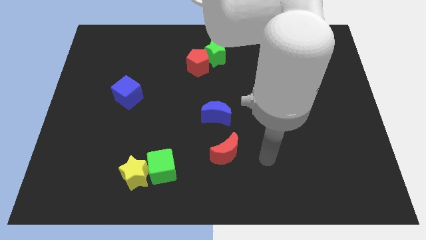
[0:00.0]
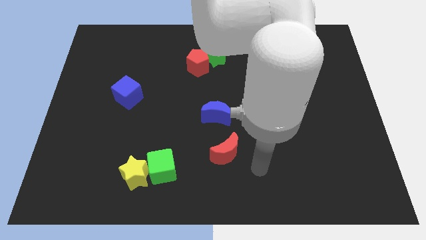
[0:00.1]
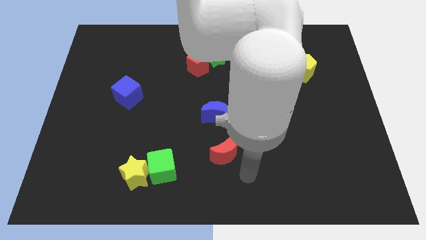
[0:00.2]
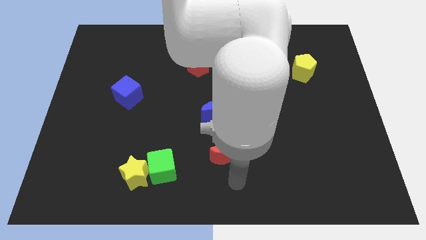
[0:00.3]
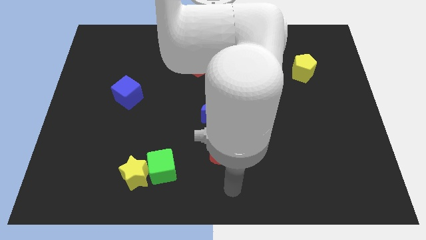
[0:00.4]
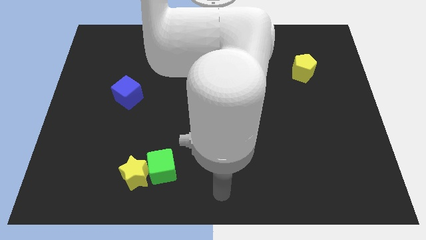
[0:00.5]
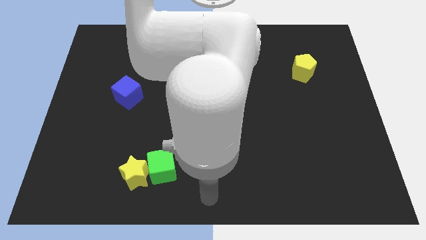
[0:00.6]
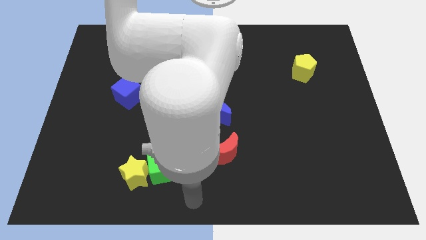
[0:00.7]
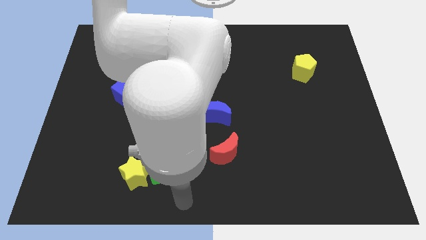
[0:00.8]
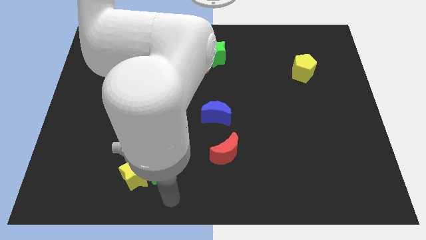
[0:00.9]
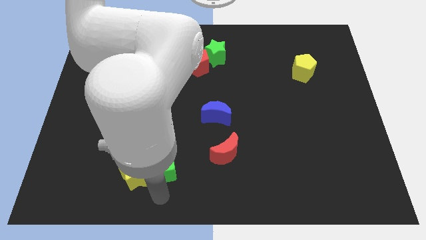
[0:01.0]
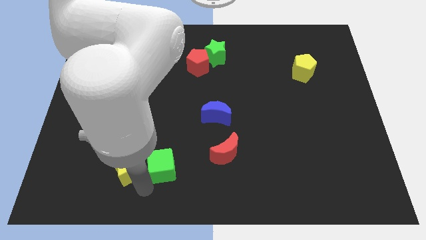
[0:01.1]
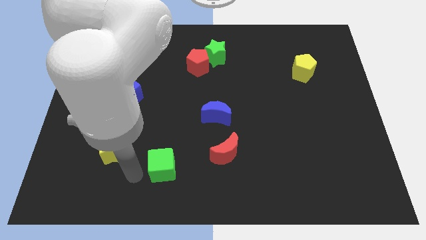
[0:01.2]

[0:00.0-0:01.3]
move the green cube away from the yellow star

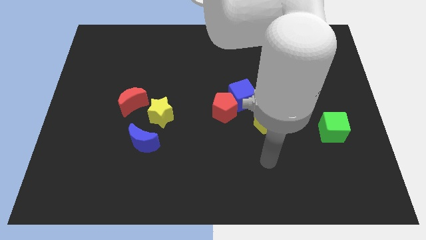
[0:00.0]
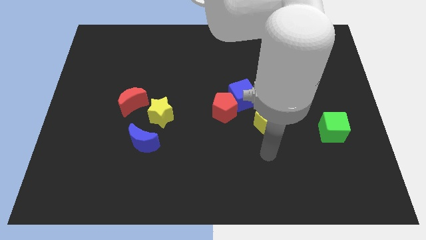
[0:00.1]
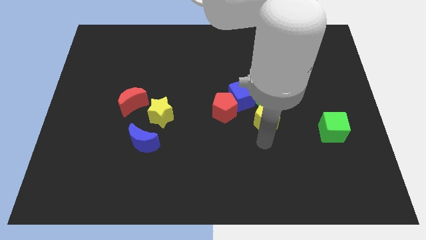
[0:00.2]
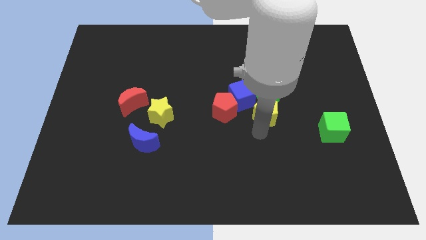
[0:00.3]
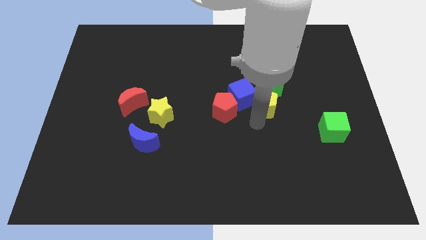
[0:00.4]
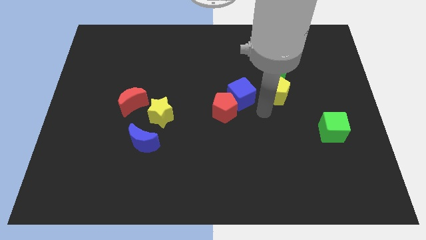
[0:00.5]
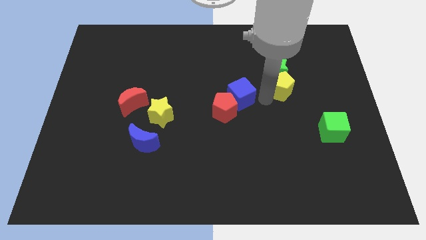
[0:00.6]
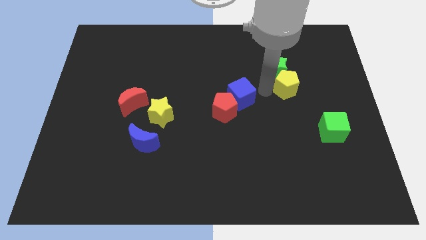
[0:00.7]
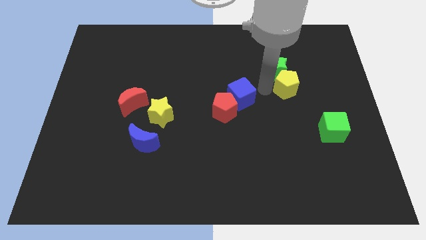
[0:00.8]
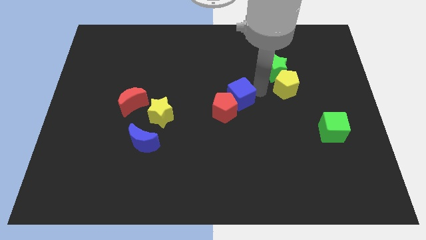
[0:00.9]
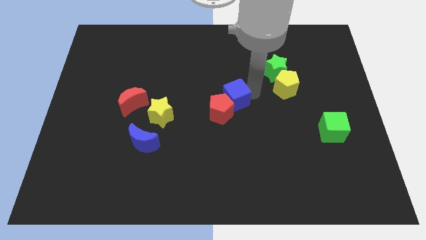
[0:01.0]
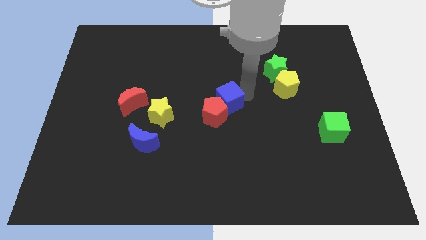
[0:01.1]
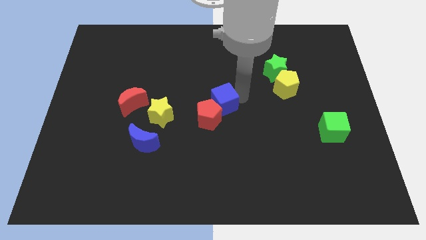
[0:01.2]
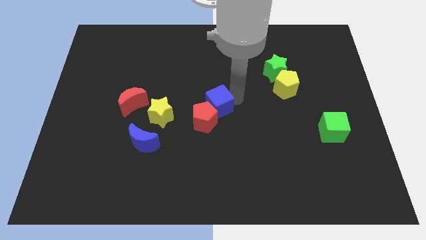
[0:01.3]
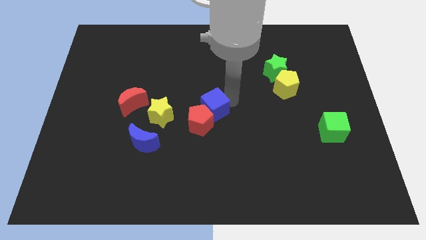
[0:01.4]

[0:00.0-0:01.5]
separate the blue cube from the red pentagon, green star, and yellow pentagon

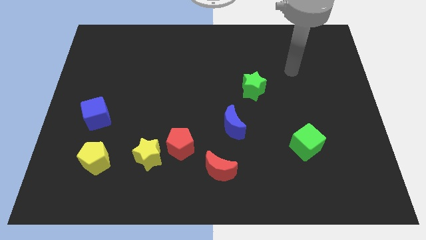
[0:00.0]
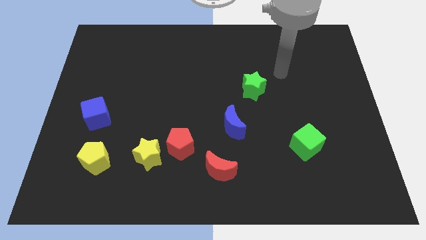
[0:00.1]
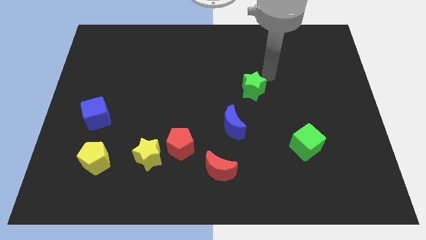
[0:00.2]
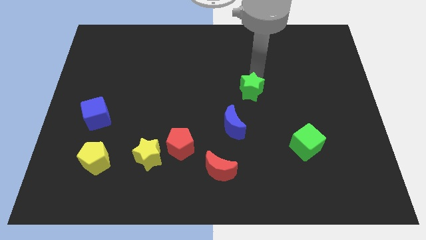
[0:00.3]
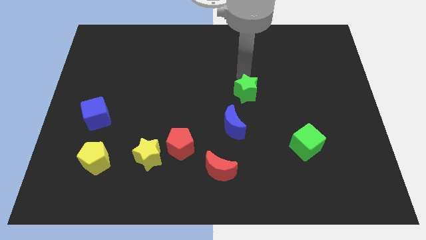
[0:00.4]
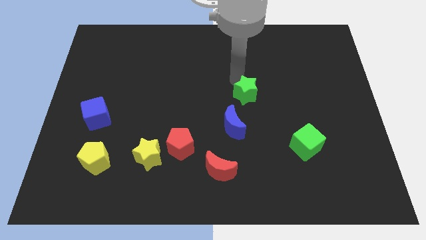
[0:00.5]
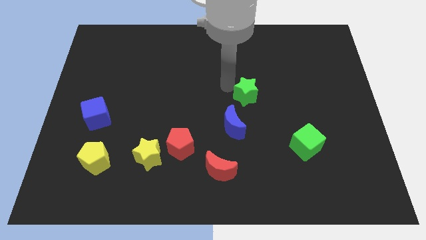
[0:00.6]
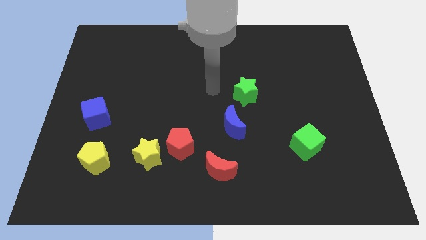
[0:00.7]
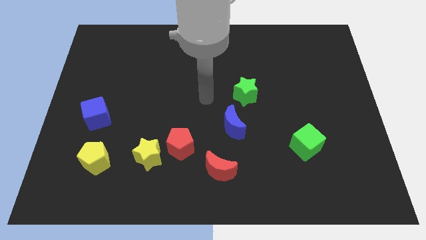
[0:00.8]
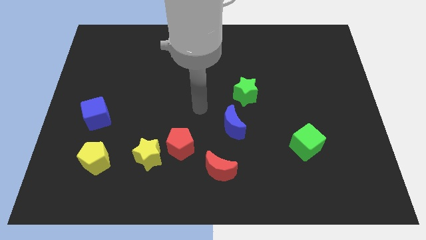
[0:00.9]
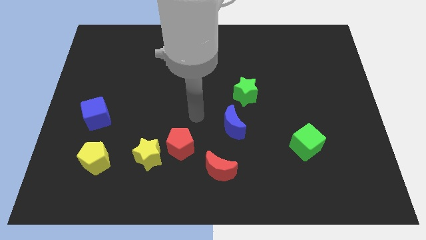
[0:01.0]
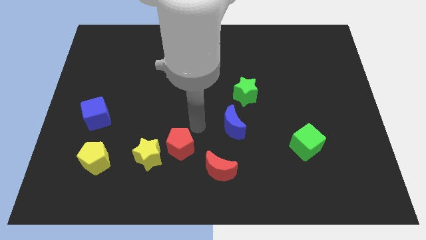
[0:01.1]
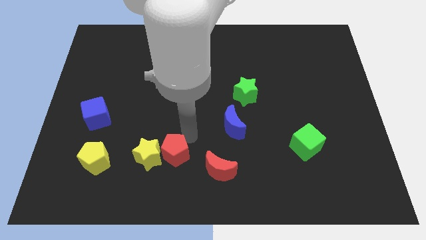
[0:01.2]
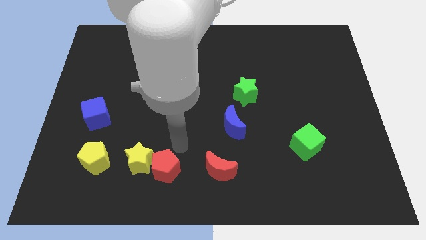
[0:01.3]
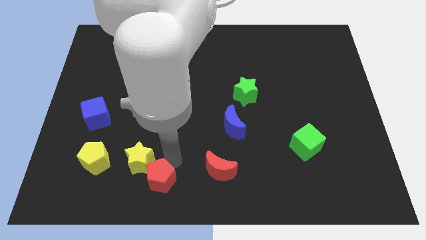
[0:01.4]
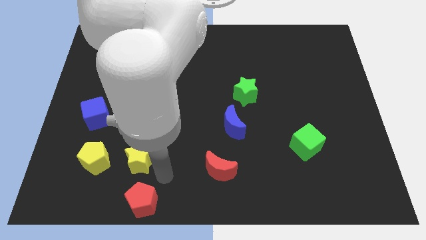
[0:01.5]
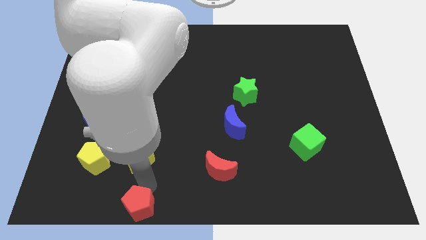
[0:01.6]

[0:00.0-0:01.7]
move the yellow star away from the red pentagon

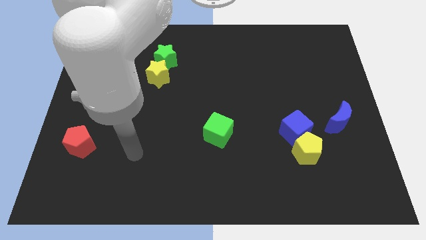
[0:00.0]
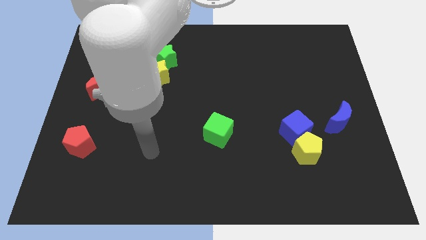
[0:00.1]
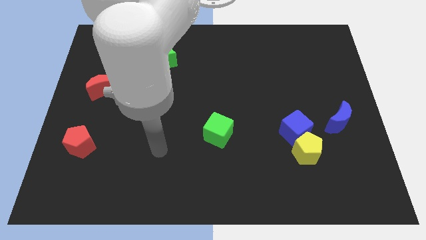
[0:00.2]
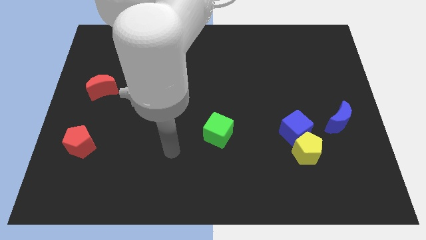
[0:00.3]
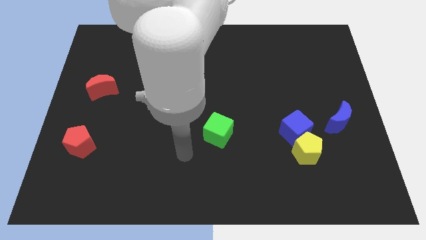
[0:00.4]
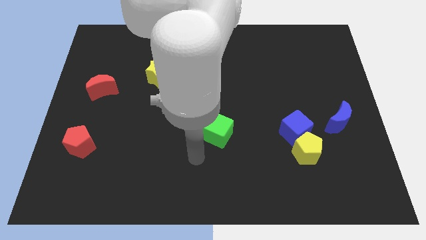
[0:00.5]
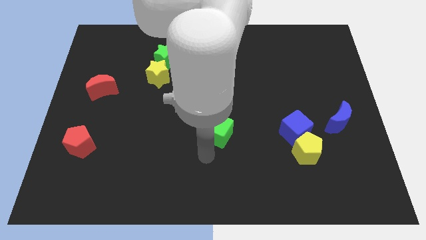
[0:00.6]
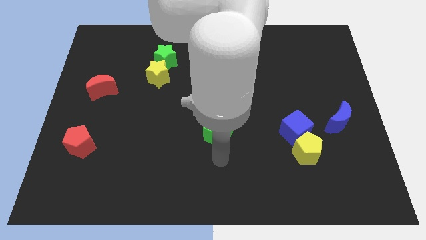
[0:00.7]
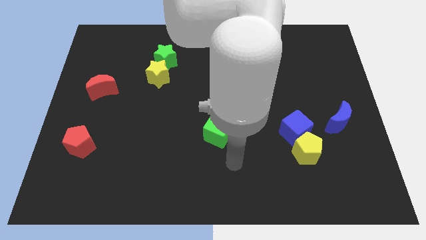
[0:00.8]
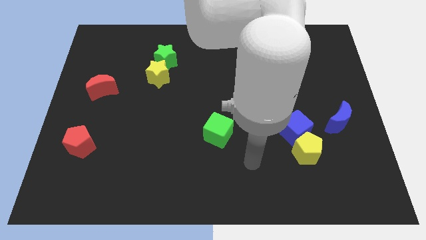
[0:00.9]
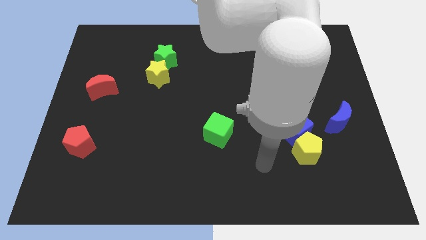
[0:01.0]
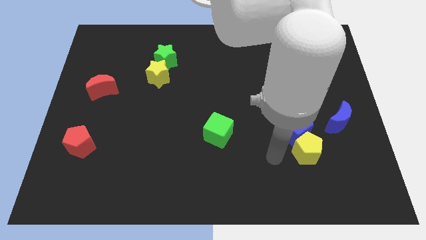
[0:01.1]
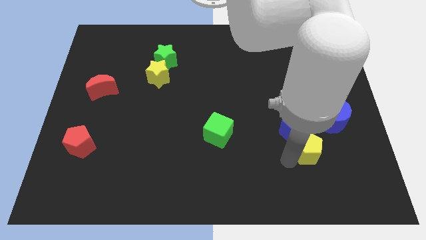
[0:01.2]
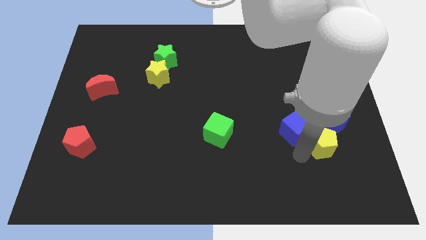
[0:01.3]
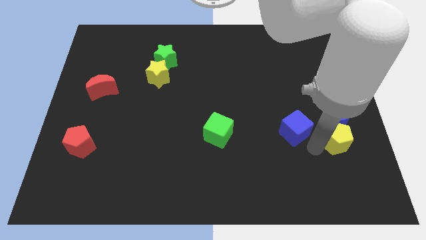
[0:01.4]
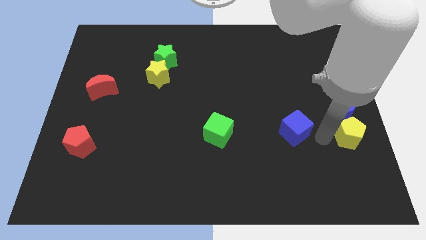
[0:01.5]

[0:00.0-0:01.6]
pull the blue cube apart from the yellow pentagon

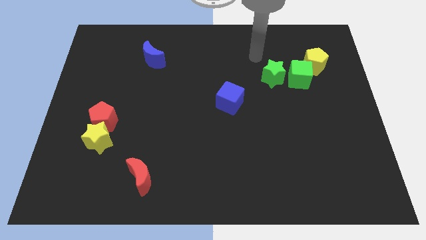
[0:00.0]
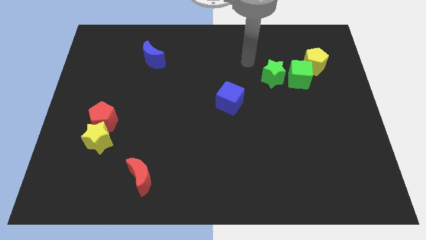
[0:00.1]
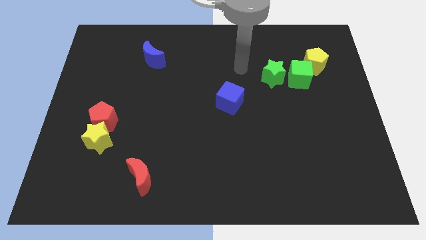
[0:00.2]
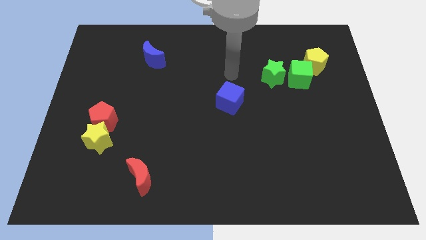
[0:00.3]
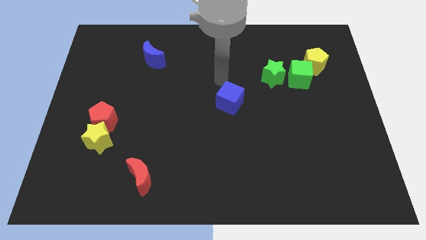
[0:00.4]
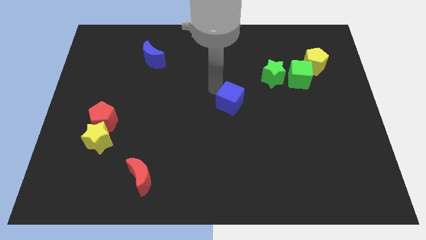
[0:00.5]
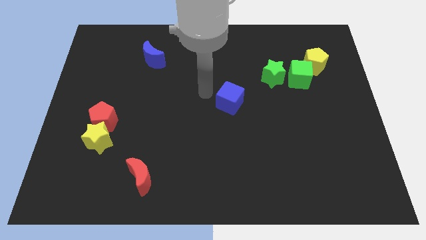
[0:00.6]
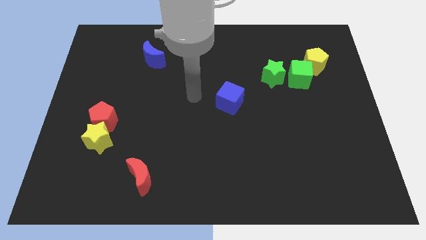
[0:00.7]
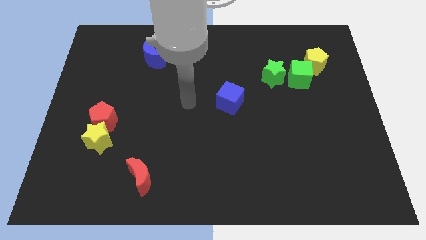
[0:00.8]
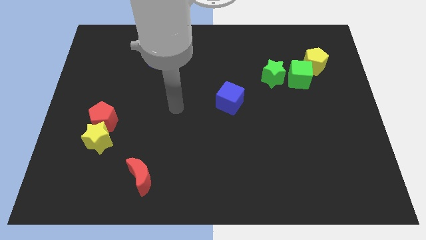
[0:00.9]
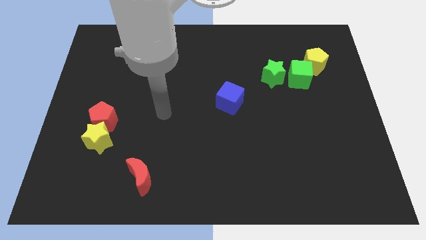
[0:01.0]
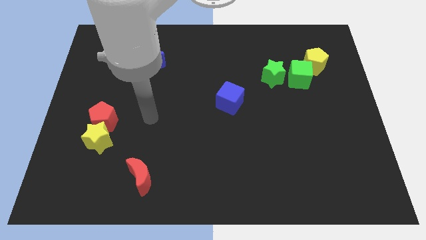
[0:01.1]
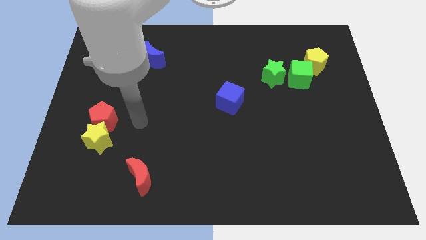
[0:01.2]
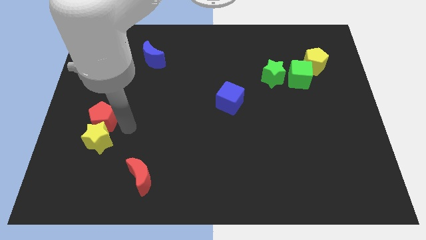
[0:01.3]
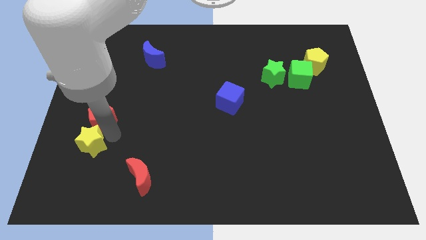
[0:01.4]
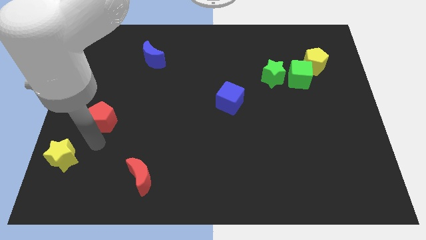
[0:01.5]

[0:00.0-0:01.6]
separate the red pentagon from the yellow star

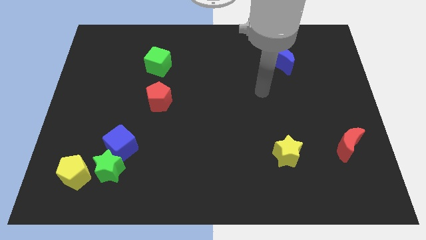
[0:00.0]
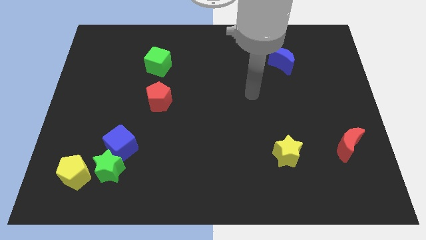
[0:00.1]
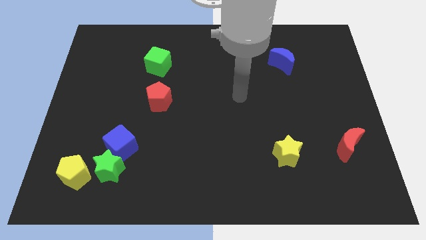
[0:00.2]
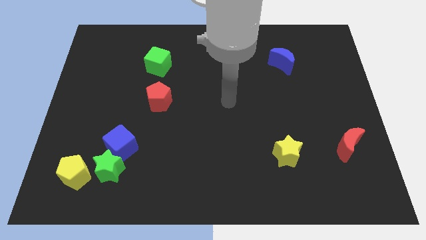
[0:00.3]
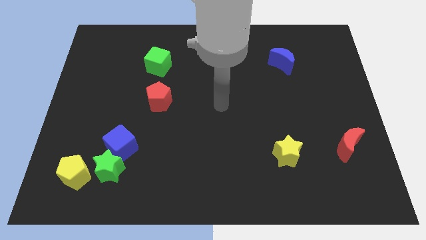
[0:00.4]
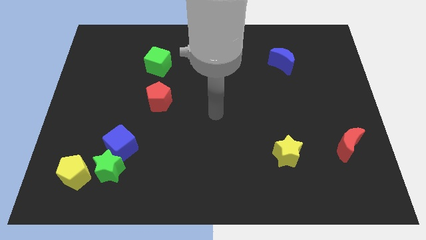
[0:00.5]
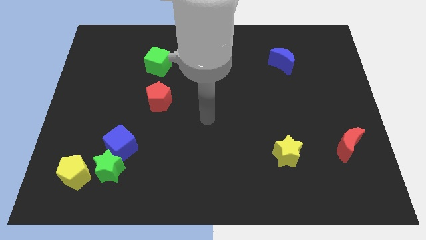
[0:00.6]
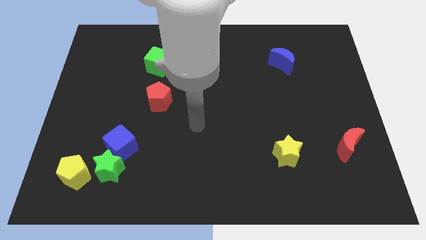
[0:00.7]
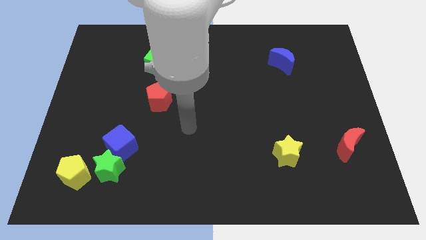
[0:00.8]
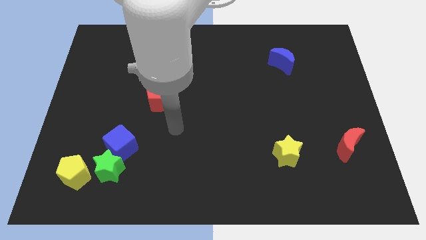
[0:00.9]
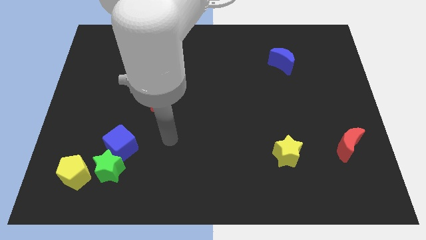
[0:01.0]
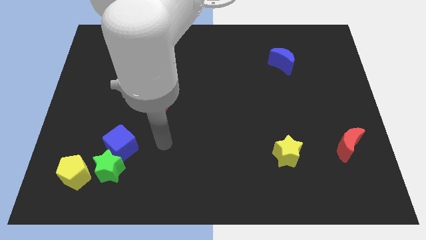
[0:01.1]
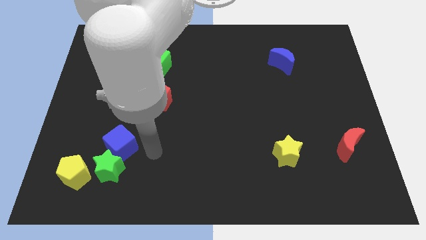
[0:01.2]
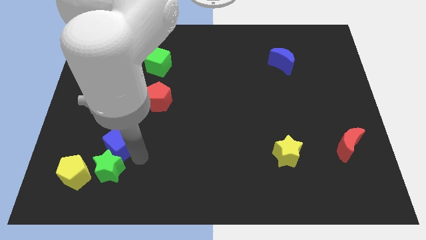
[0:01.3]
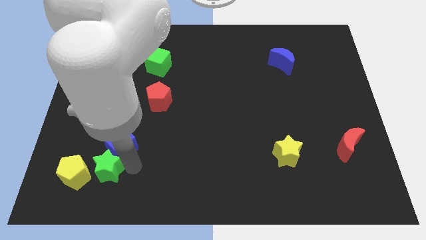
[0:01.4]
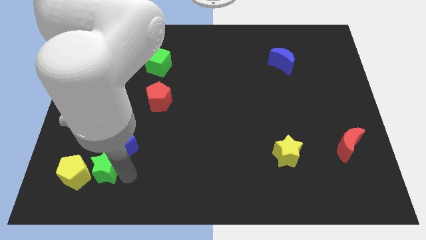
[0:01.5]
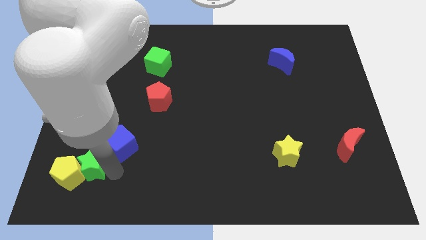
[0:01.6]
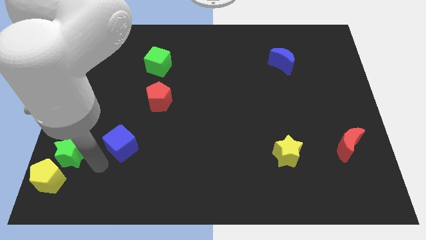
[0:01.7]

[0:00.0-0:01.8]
move the blue cube away from the green star
